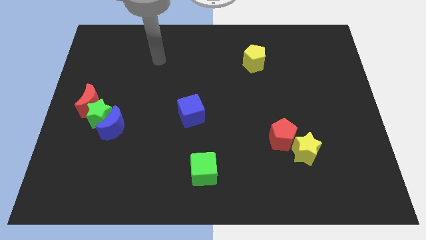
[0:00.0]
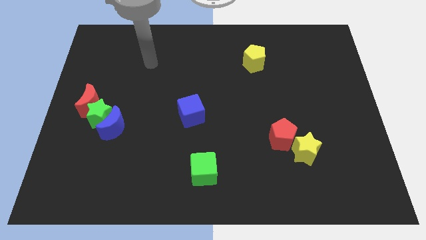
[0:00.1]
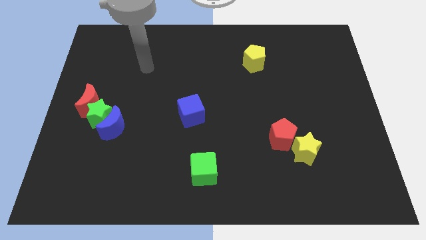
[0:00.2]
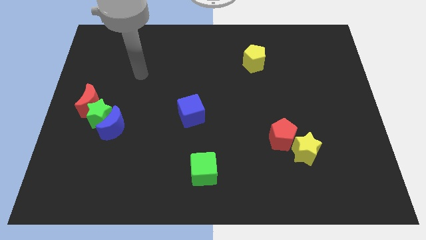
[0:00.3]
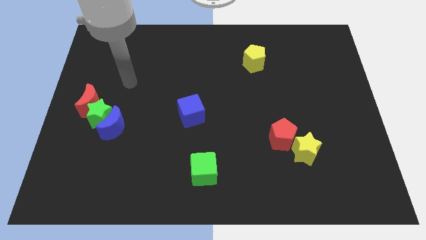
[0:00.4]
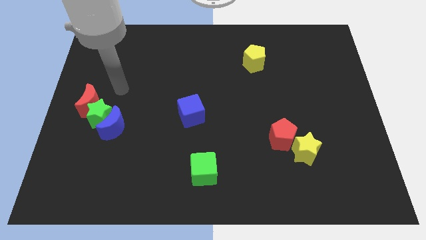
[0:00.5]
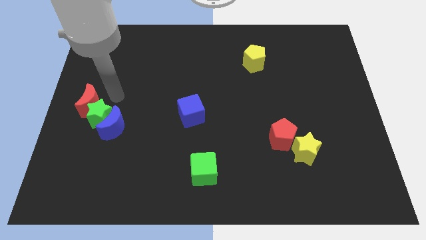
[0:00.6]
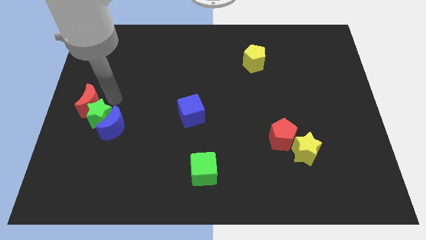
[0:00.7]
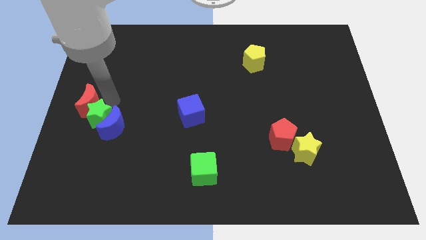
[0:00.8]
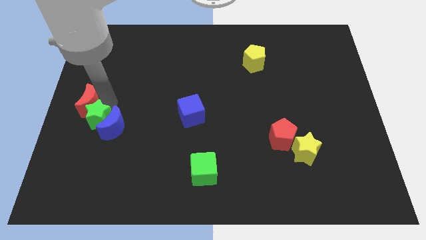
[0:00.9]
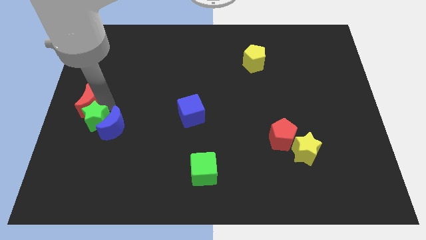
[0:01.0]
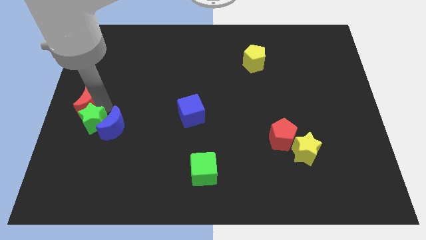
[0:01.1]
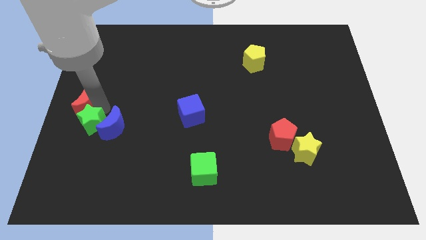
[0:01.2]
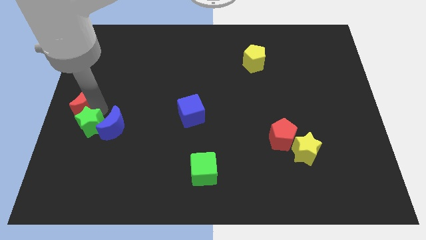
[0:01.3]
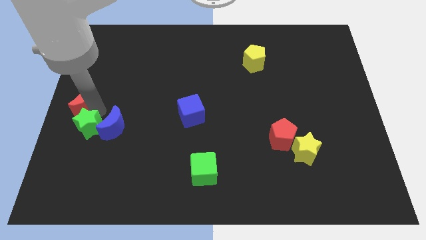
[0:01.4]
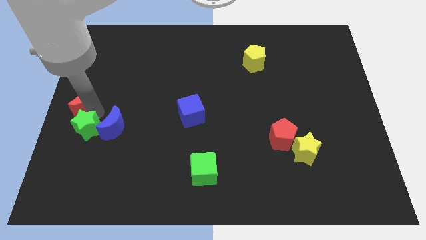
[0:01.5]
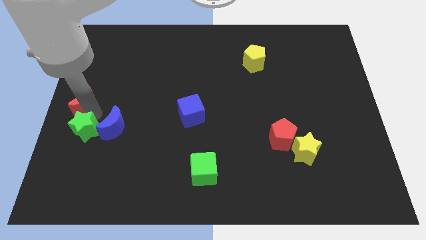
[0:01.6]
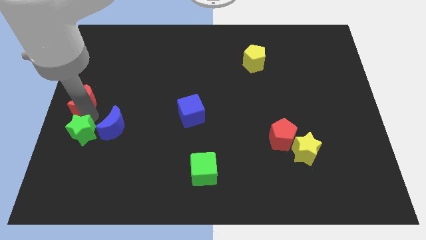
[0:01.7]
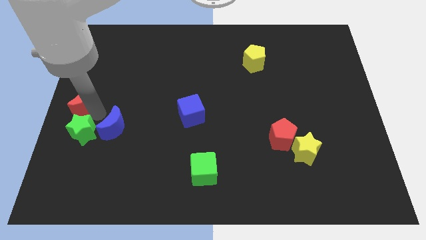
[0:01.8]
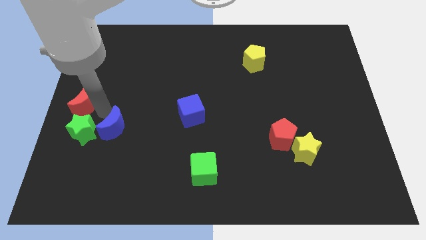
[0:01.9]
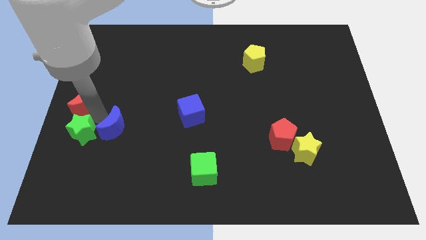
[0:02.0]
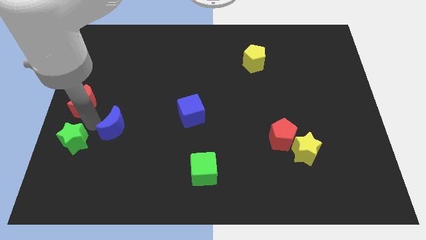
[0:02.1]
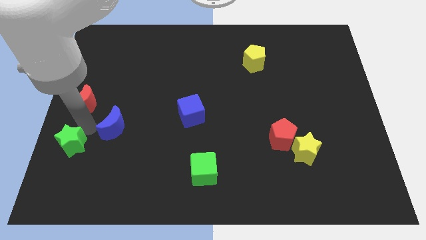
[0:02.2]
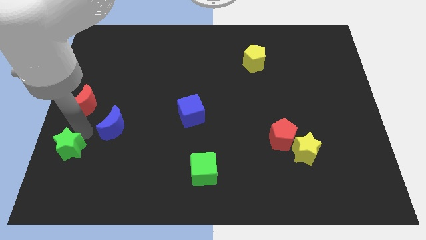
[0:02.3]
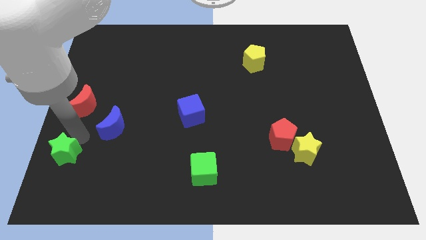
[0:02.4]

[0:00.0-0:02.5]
pull the green star apart from the blue moon and red moon

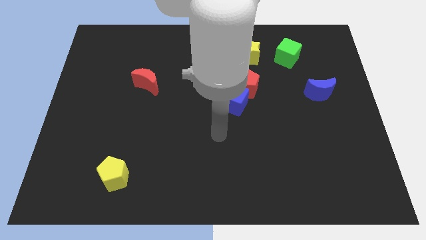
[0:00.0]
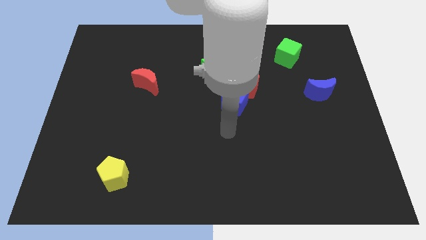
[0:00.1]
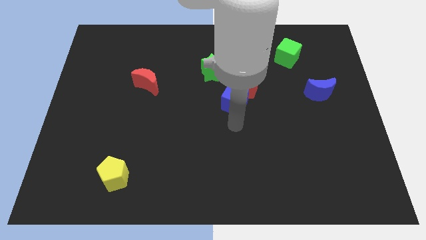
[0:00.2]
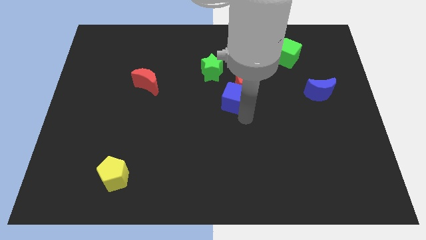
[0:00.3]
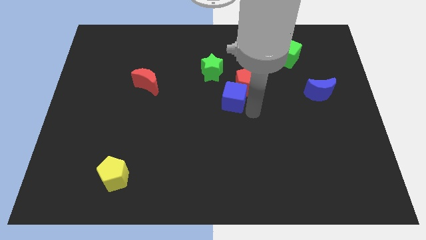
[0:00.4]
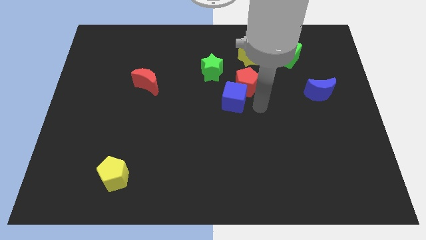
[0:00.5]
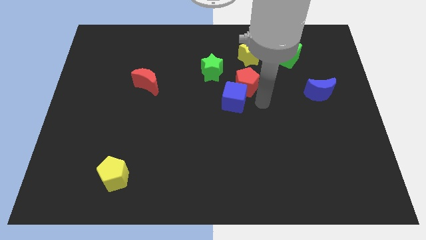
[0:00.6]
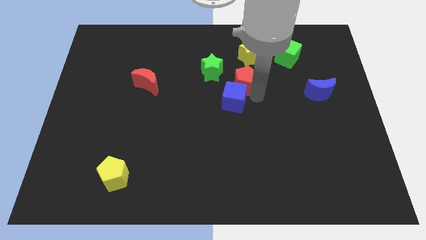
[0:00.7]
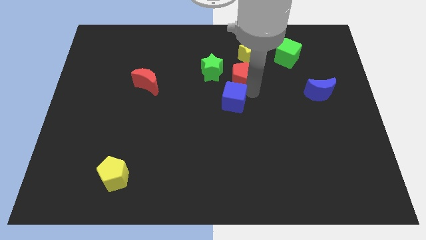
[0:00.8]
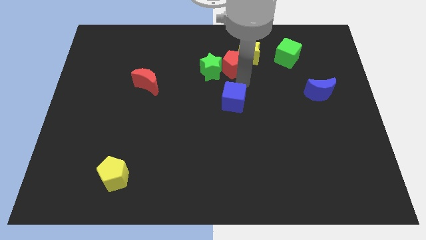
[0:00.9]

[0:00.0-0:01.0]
move the blue cube away from the red pentagon

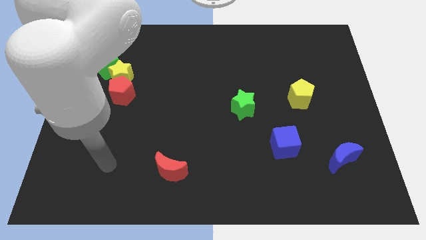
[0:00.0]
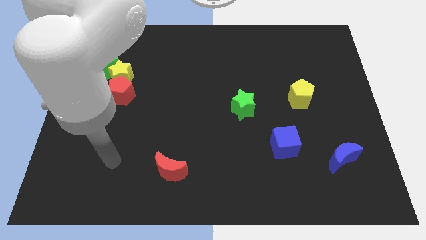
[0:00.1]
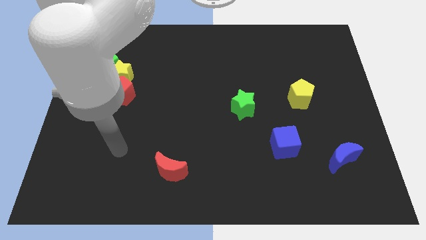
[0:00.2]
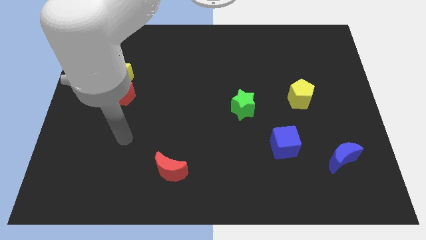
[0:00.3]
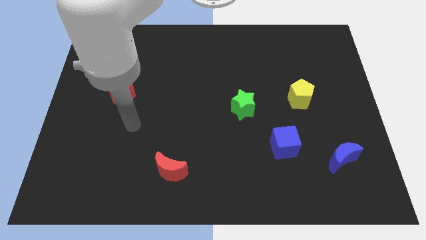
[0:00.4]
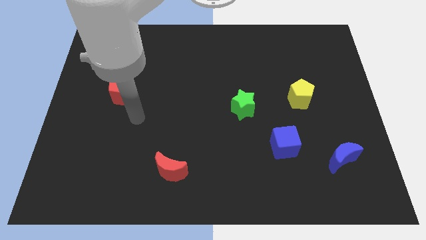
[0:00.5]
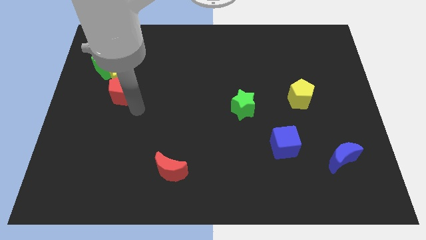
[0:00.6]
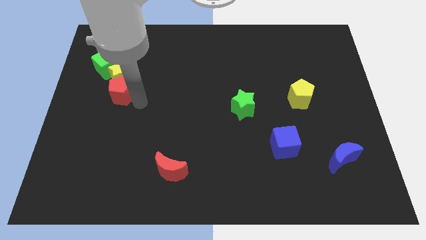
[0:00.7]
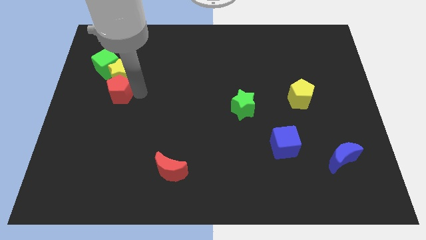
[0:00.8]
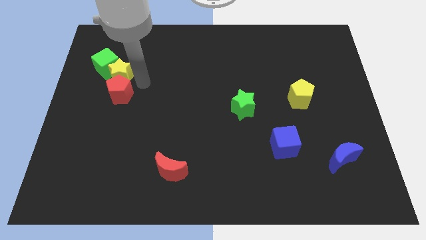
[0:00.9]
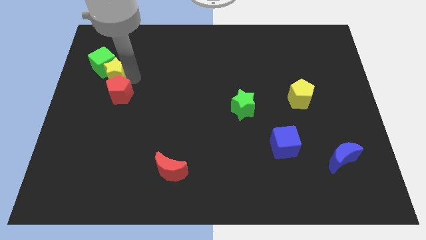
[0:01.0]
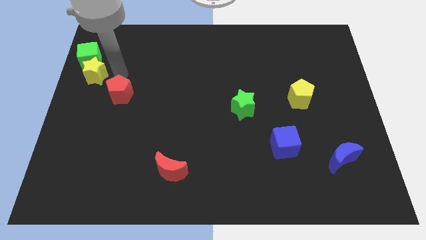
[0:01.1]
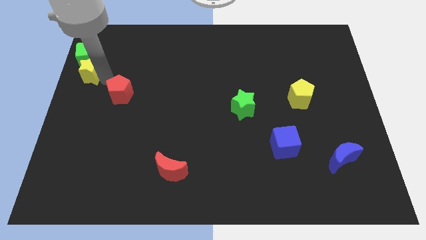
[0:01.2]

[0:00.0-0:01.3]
pull the red pentagon apart from the yellow star

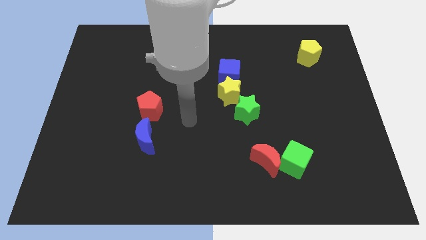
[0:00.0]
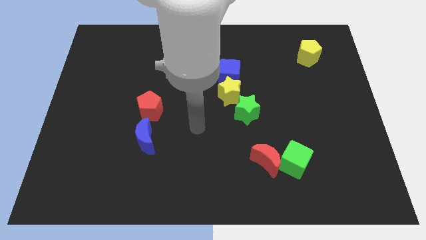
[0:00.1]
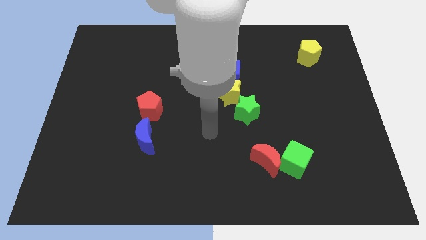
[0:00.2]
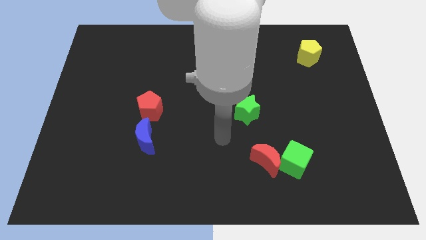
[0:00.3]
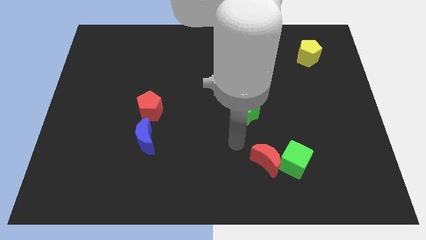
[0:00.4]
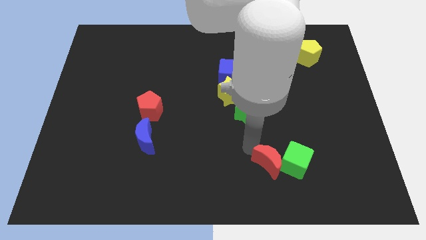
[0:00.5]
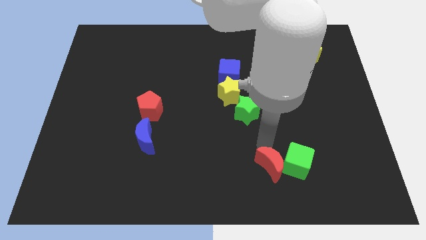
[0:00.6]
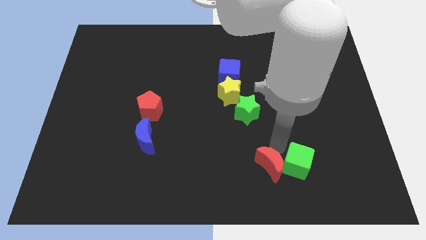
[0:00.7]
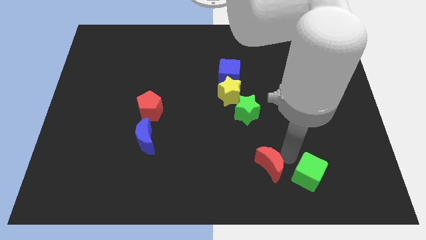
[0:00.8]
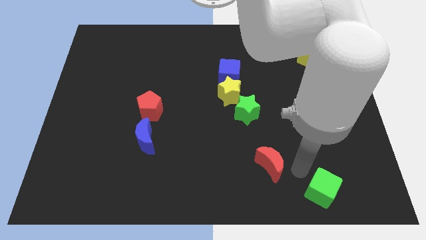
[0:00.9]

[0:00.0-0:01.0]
pull the red moon apart from the green cube

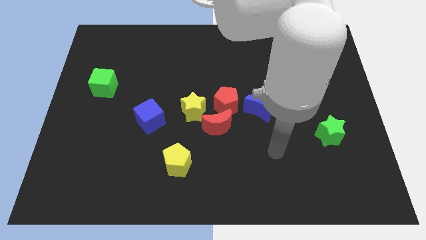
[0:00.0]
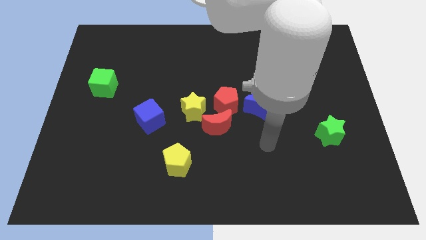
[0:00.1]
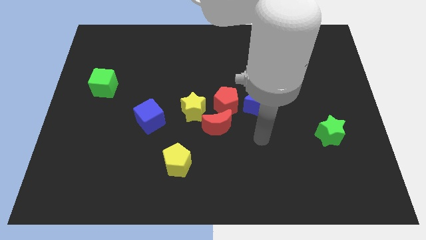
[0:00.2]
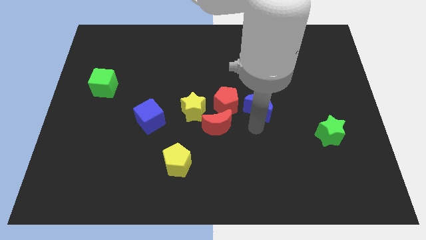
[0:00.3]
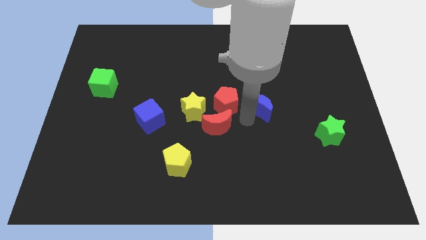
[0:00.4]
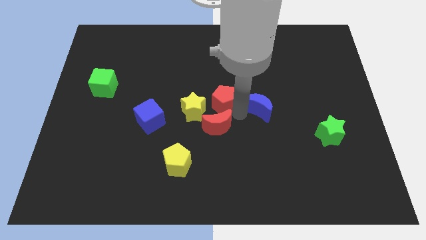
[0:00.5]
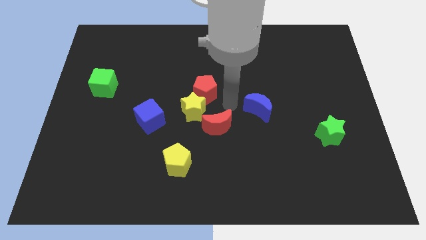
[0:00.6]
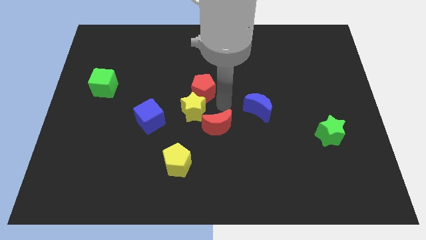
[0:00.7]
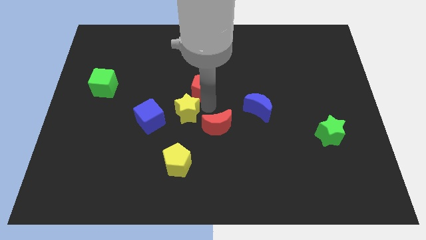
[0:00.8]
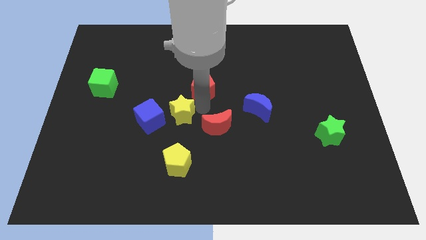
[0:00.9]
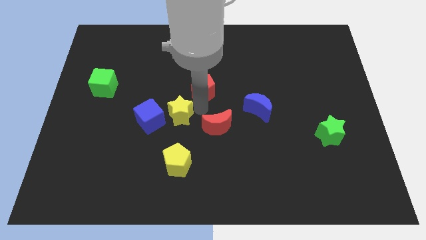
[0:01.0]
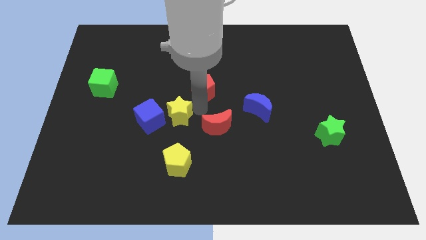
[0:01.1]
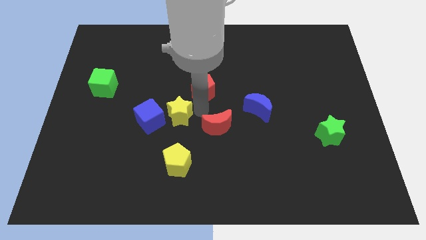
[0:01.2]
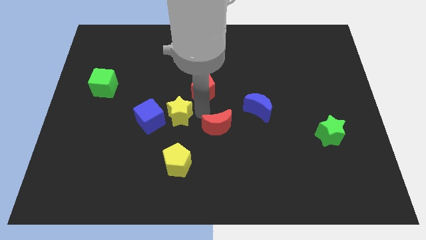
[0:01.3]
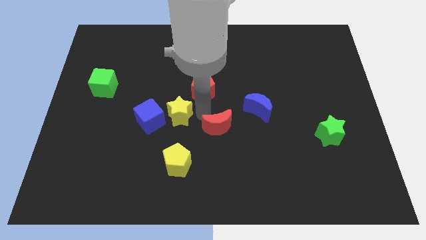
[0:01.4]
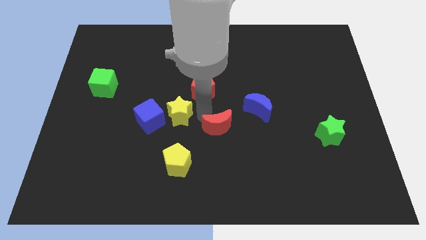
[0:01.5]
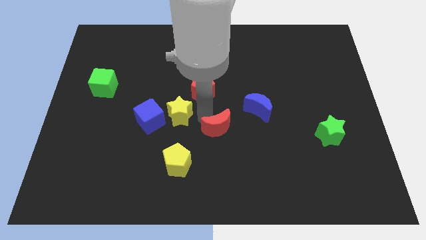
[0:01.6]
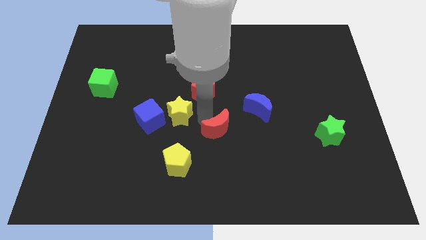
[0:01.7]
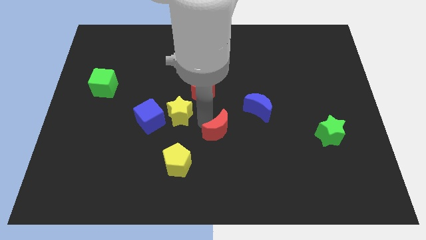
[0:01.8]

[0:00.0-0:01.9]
separate the red moon from the red pentagon and yellow star

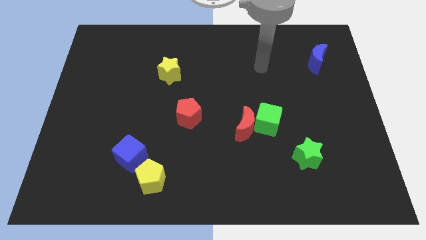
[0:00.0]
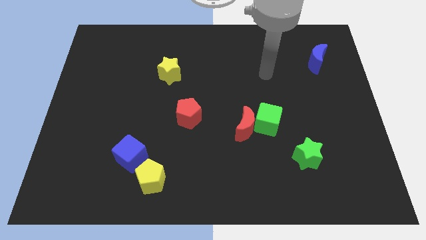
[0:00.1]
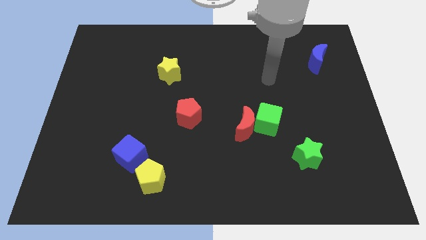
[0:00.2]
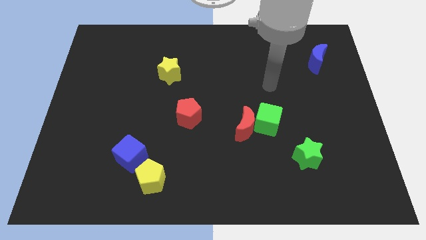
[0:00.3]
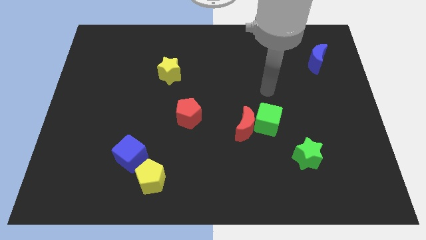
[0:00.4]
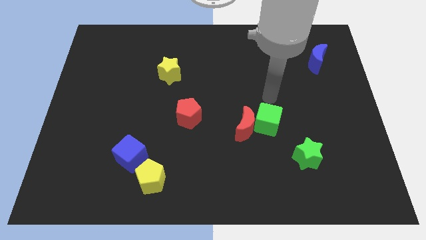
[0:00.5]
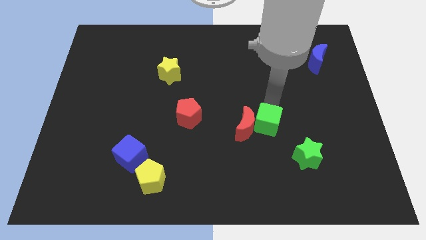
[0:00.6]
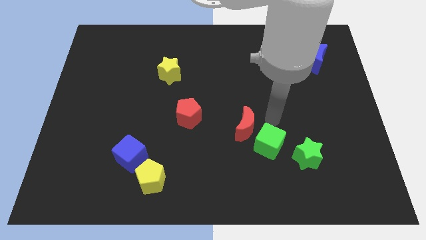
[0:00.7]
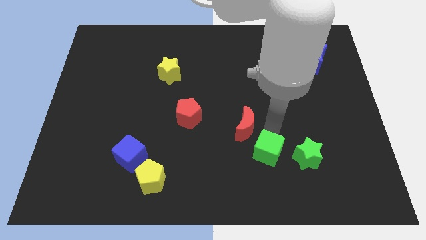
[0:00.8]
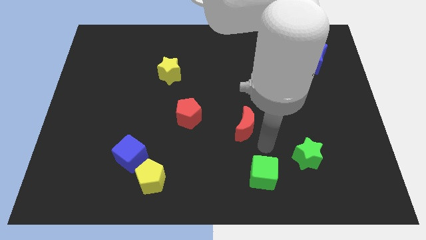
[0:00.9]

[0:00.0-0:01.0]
move the red moon away from the green cube

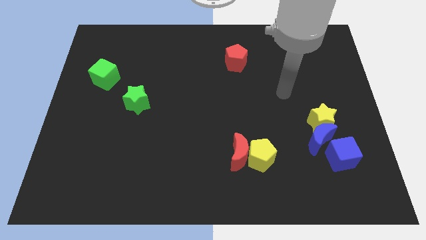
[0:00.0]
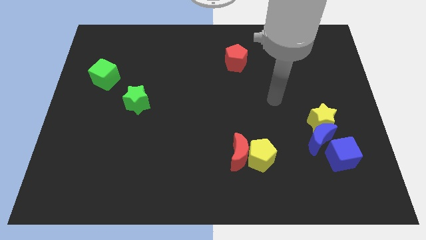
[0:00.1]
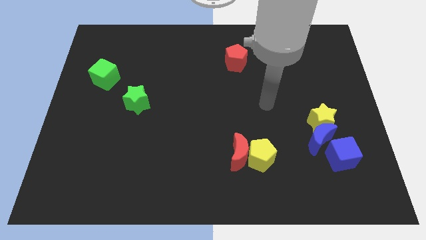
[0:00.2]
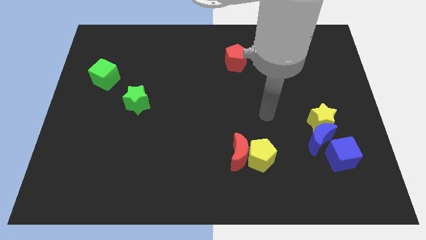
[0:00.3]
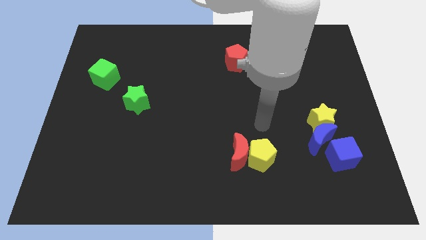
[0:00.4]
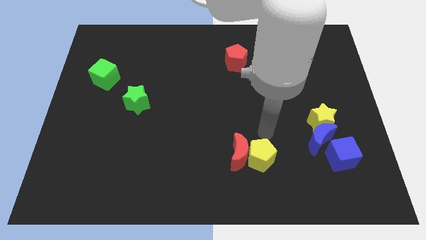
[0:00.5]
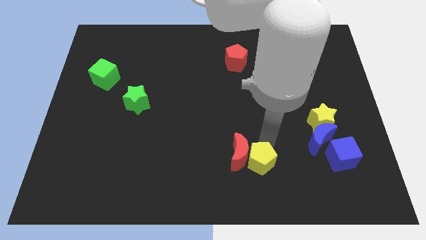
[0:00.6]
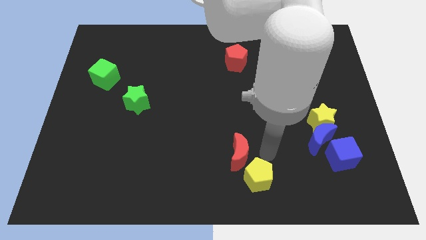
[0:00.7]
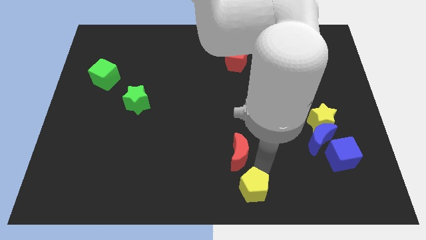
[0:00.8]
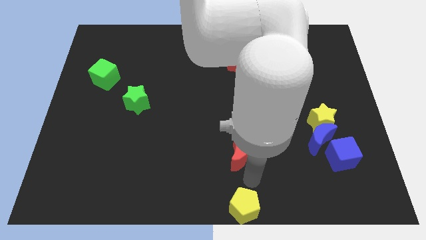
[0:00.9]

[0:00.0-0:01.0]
separate the red moon from the yellow pentagon
